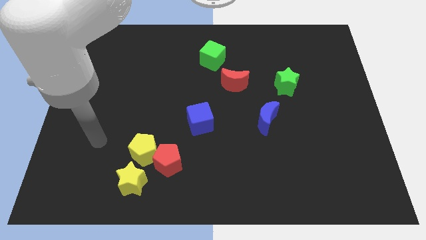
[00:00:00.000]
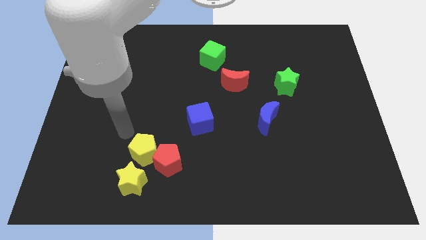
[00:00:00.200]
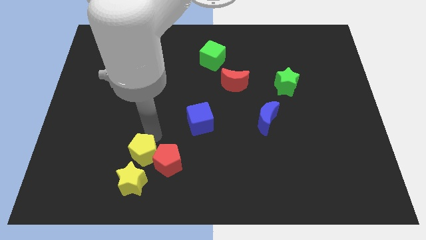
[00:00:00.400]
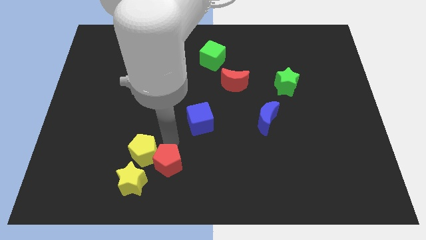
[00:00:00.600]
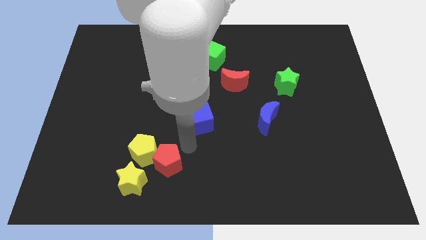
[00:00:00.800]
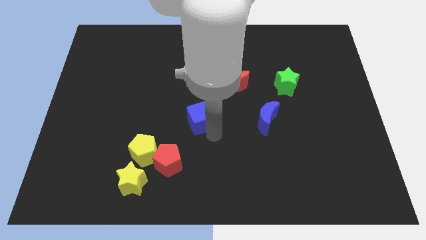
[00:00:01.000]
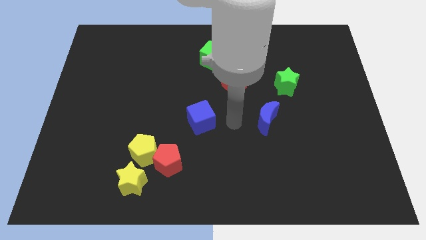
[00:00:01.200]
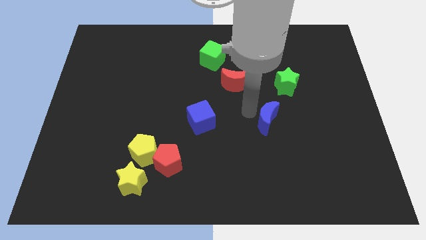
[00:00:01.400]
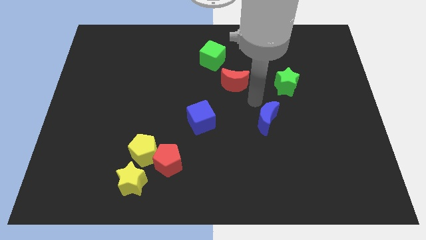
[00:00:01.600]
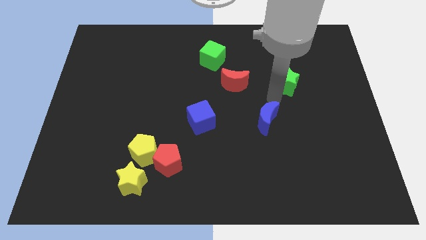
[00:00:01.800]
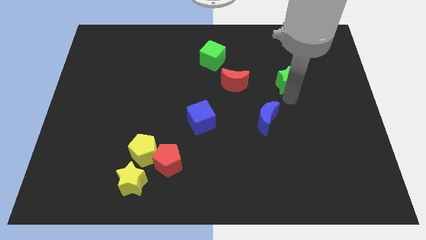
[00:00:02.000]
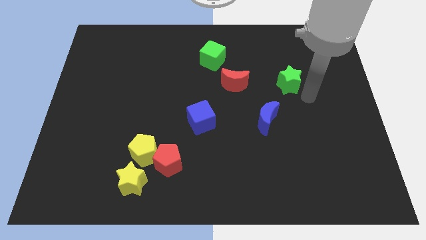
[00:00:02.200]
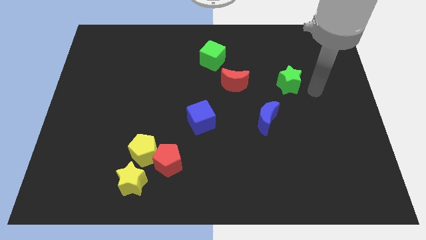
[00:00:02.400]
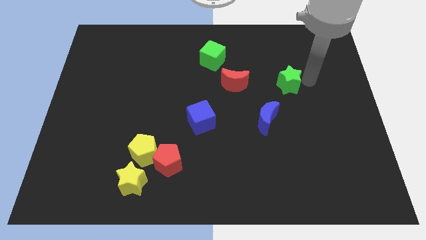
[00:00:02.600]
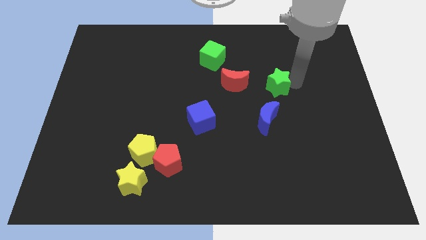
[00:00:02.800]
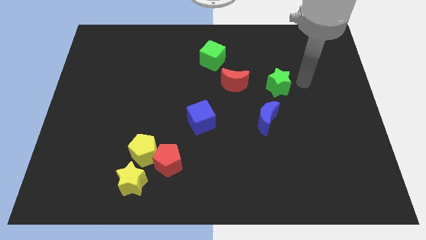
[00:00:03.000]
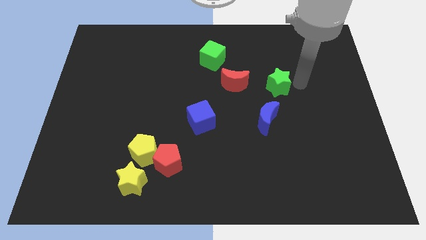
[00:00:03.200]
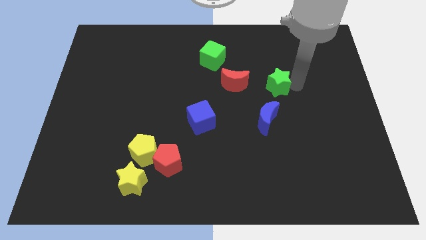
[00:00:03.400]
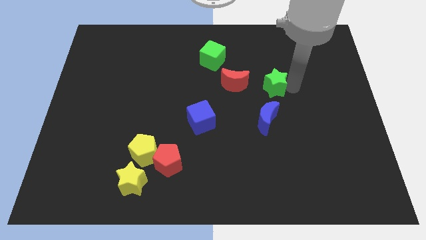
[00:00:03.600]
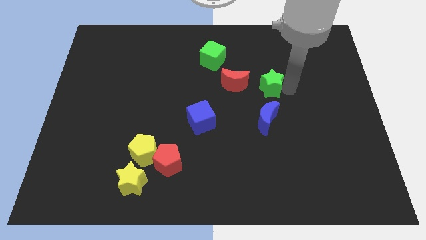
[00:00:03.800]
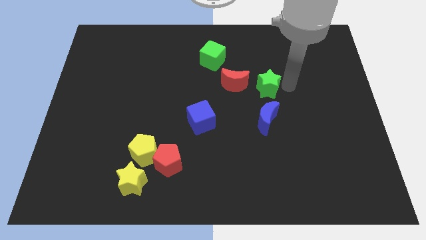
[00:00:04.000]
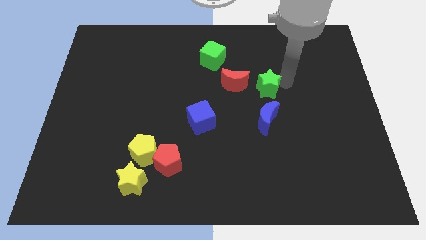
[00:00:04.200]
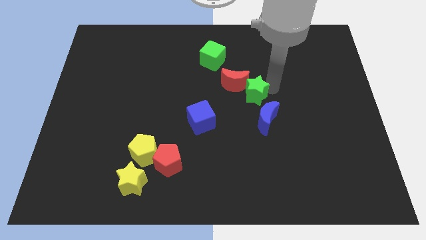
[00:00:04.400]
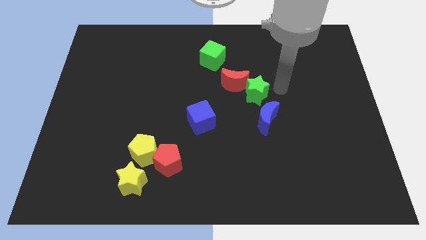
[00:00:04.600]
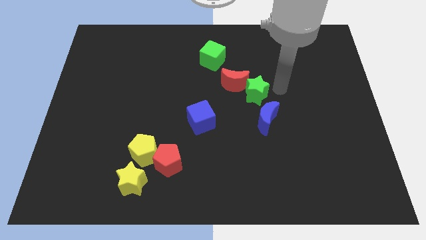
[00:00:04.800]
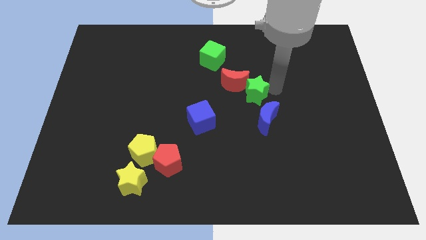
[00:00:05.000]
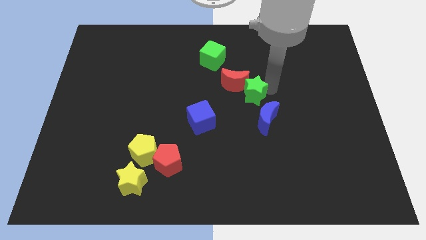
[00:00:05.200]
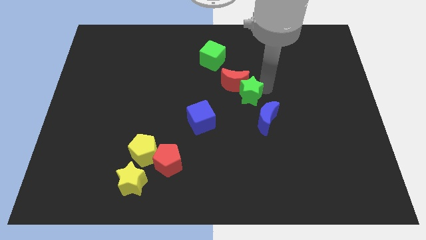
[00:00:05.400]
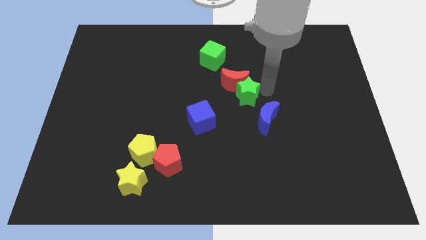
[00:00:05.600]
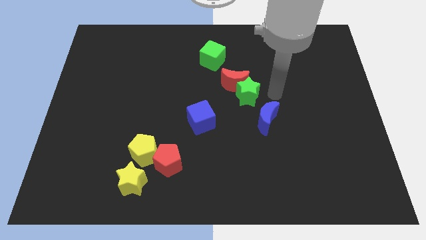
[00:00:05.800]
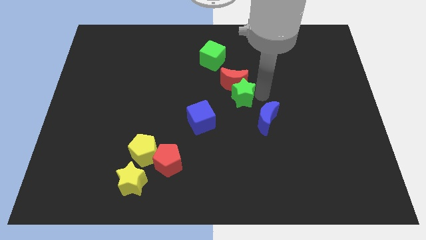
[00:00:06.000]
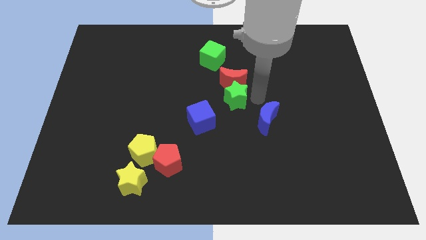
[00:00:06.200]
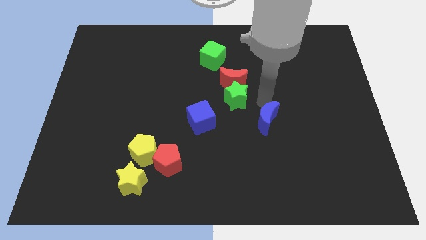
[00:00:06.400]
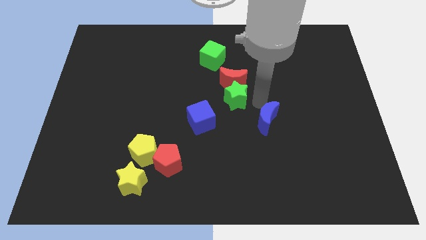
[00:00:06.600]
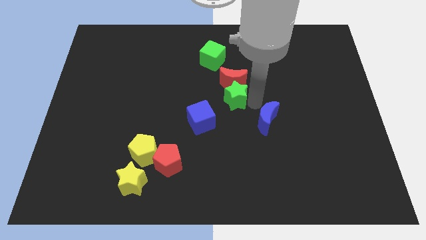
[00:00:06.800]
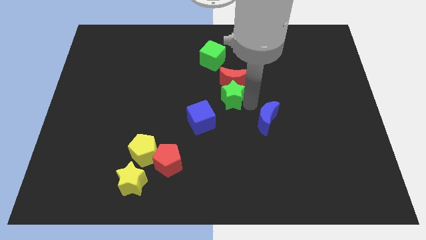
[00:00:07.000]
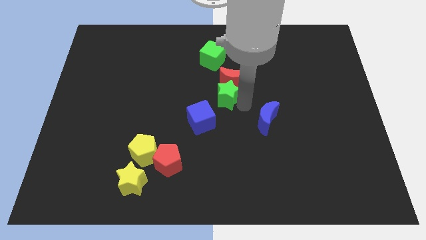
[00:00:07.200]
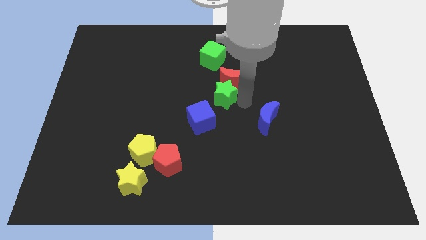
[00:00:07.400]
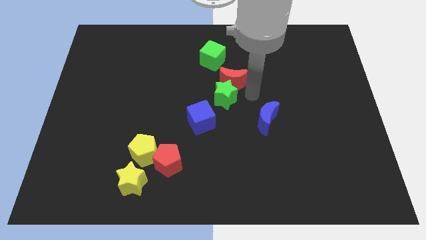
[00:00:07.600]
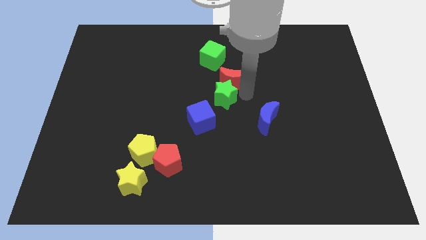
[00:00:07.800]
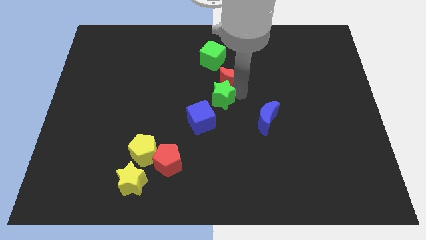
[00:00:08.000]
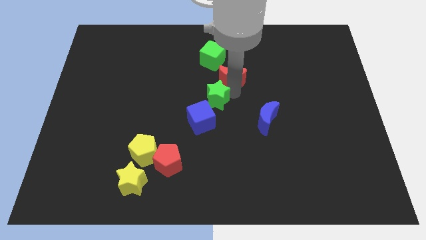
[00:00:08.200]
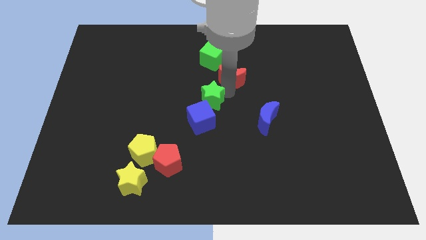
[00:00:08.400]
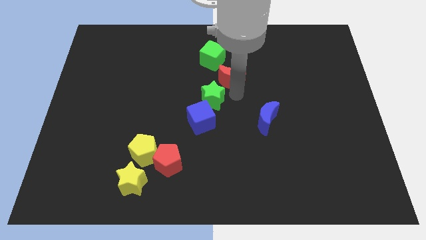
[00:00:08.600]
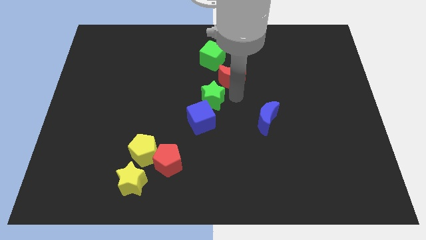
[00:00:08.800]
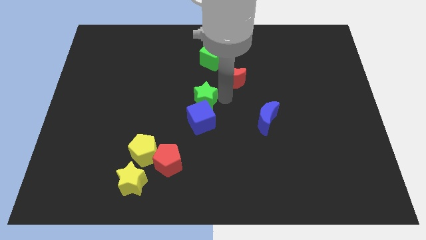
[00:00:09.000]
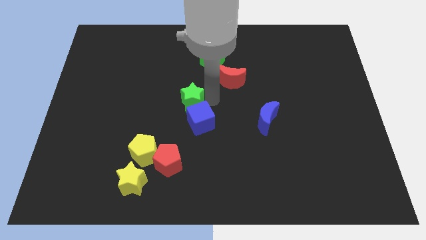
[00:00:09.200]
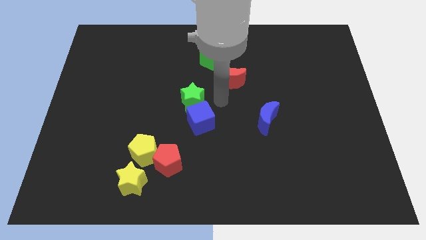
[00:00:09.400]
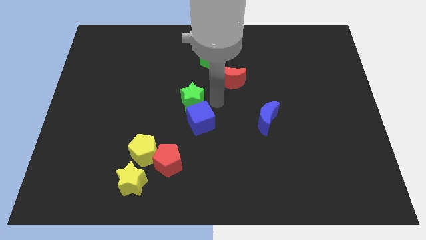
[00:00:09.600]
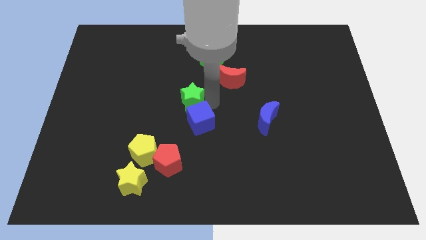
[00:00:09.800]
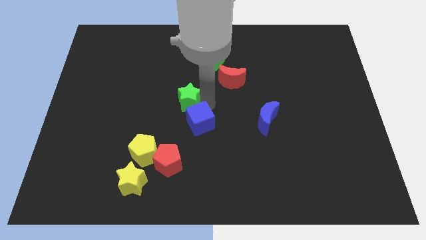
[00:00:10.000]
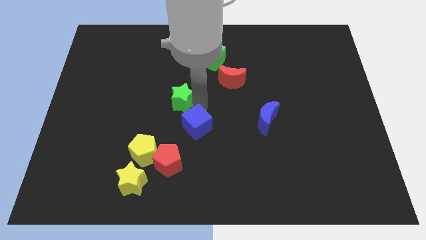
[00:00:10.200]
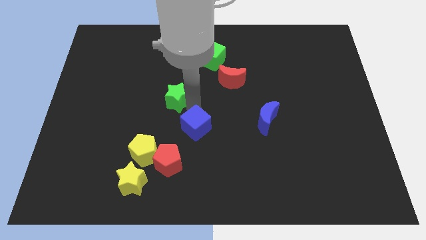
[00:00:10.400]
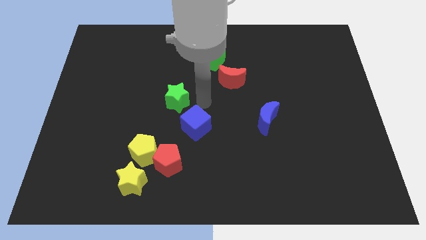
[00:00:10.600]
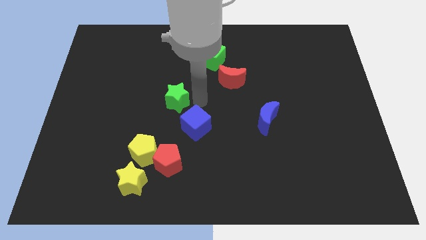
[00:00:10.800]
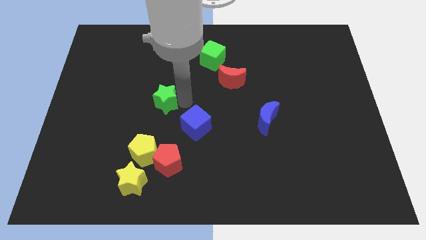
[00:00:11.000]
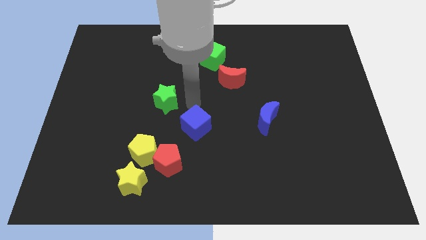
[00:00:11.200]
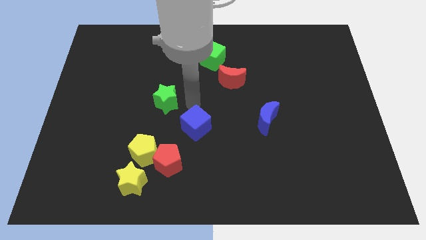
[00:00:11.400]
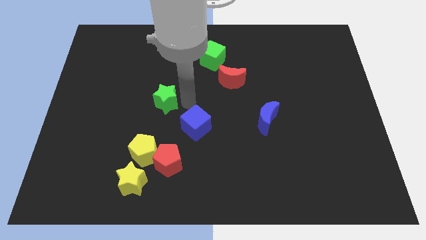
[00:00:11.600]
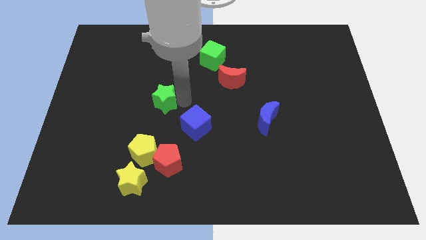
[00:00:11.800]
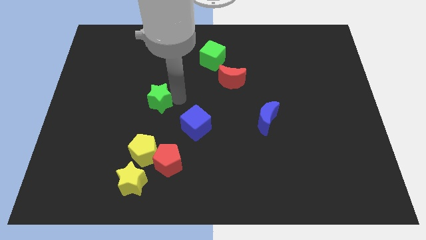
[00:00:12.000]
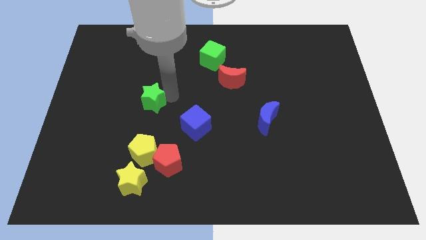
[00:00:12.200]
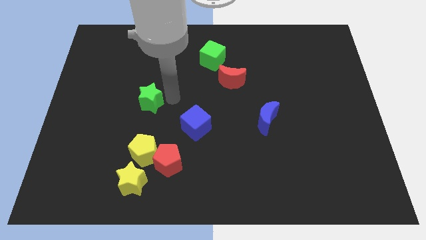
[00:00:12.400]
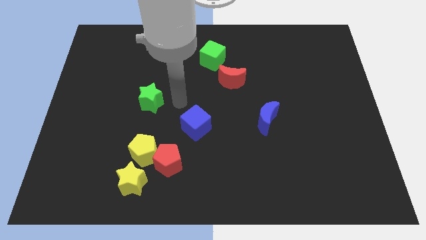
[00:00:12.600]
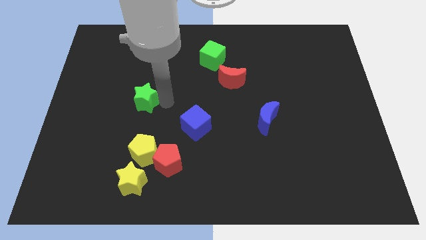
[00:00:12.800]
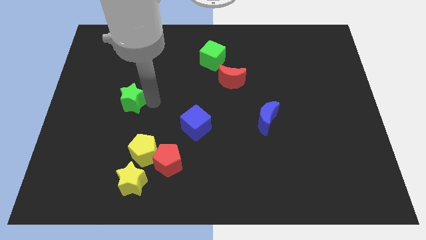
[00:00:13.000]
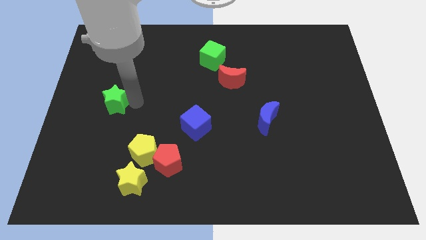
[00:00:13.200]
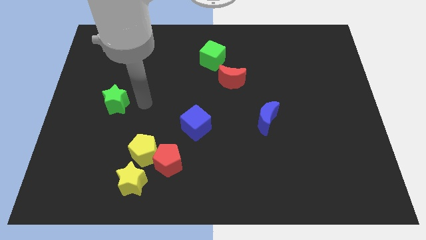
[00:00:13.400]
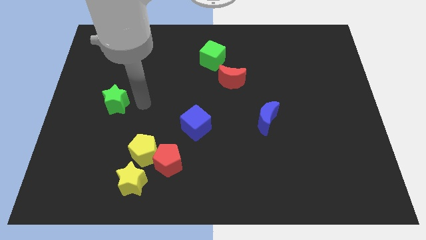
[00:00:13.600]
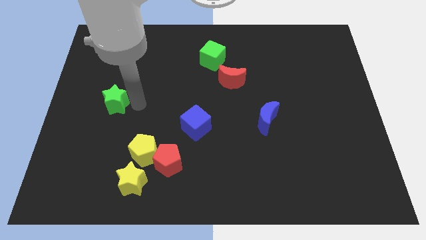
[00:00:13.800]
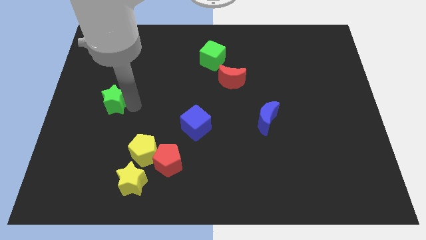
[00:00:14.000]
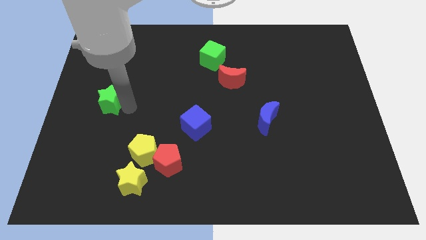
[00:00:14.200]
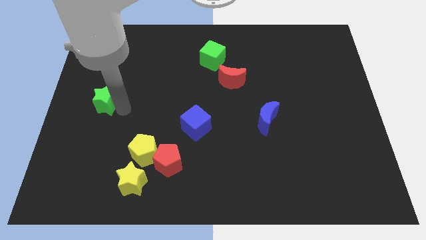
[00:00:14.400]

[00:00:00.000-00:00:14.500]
slide the green star to the left side of the board
